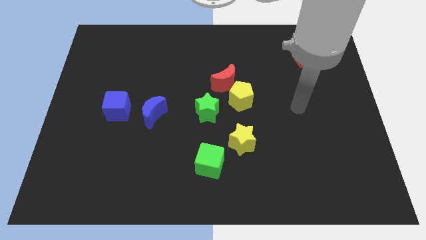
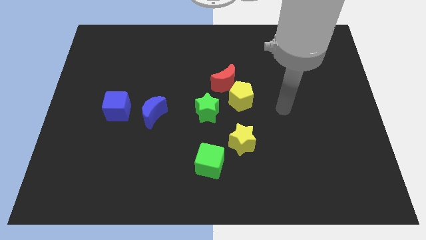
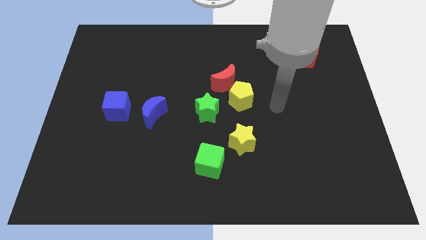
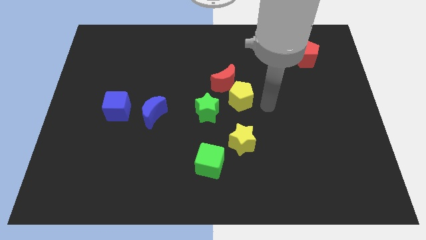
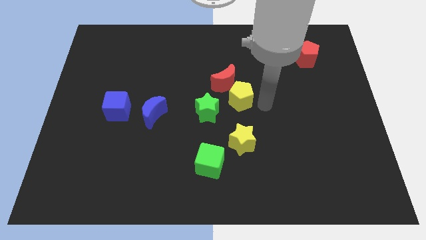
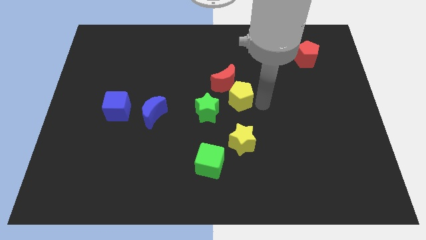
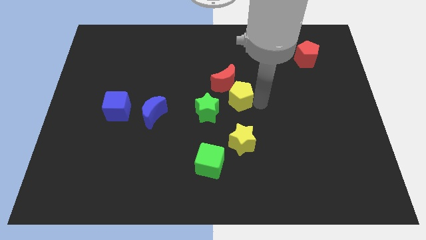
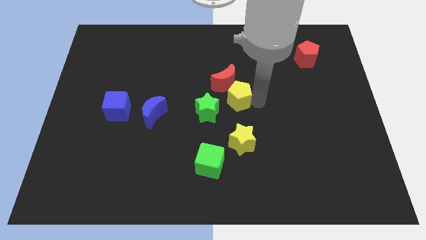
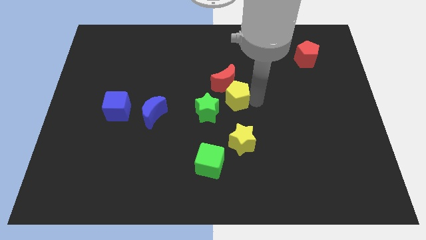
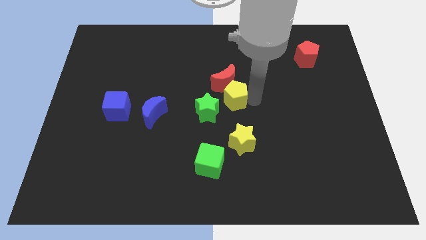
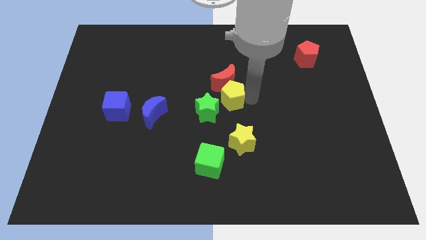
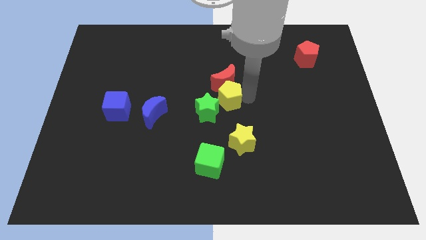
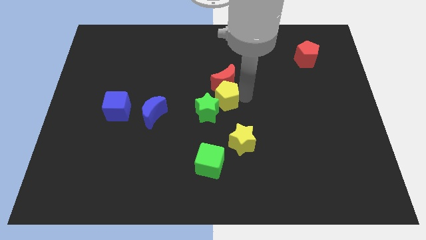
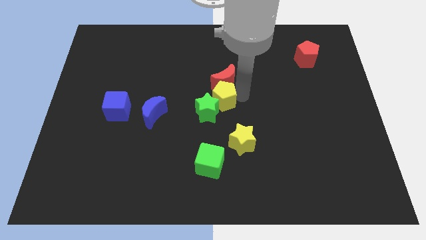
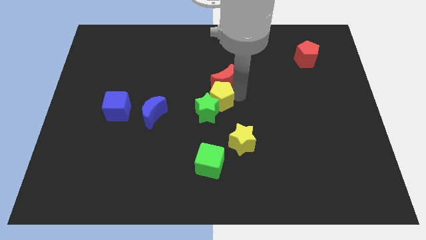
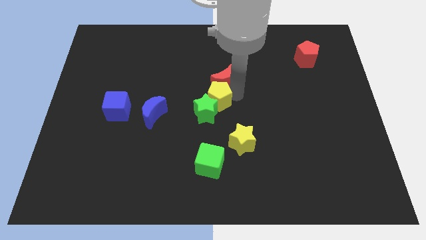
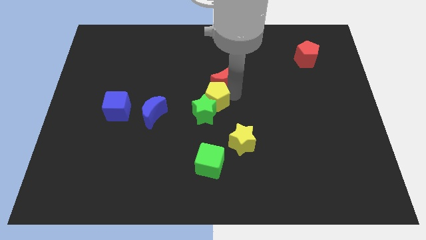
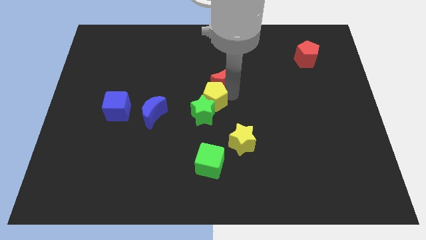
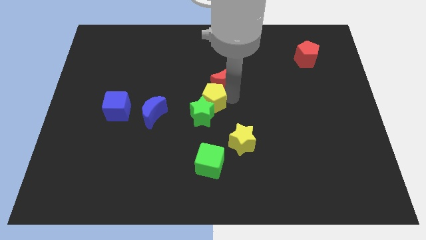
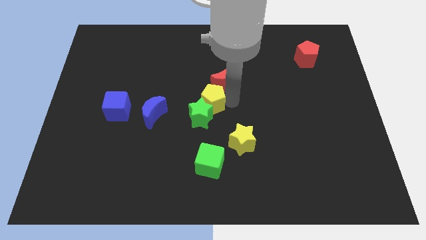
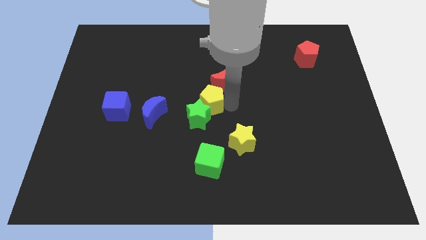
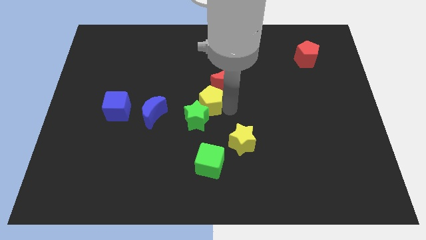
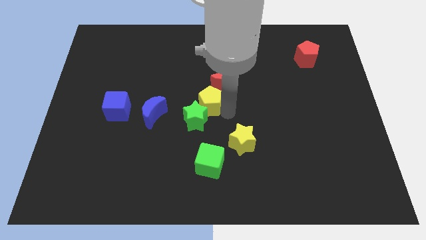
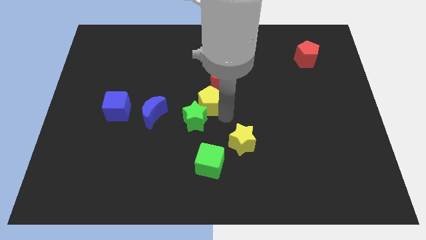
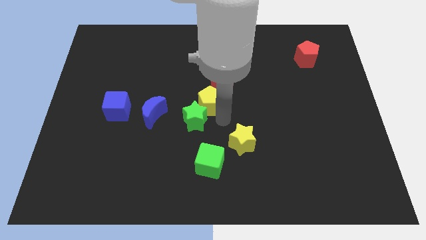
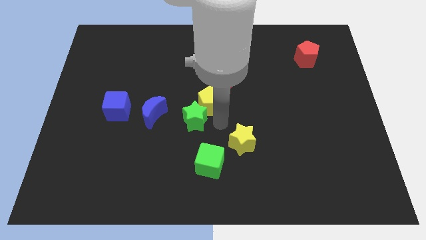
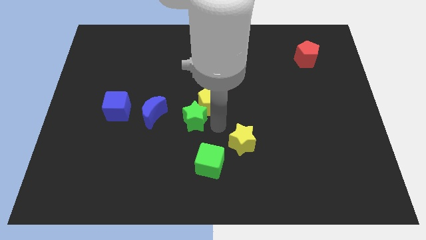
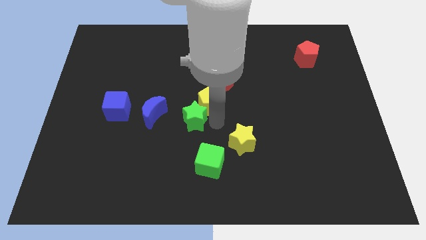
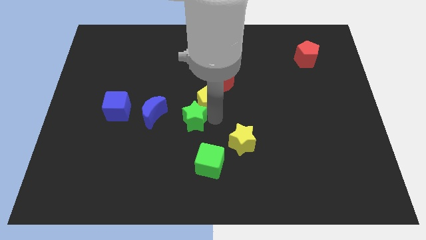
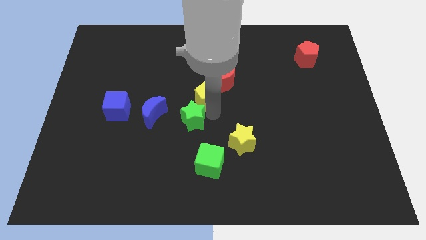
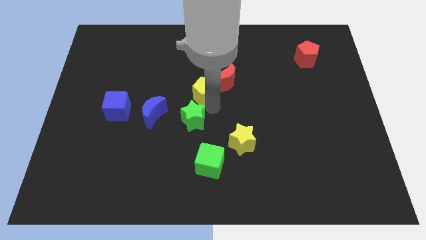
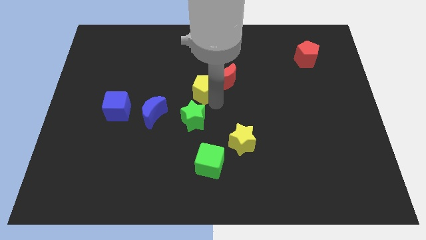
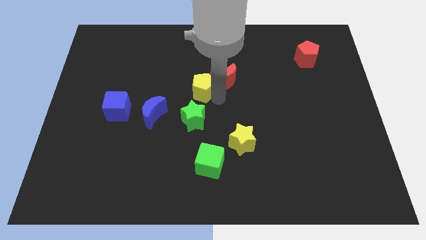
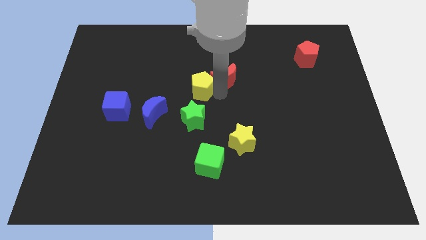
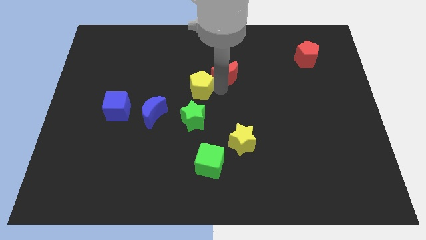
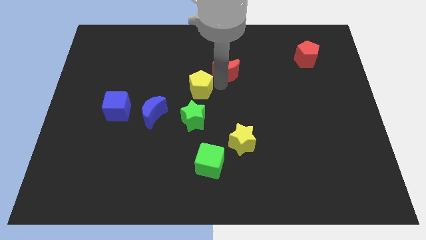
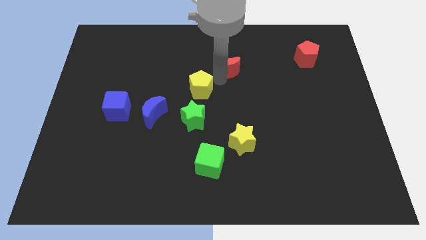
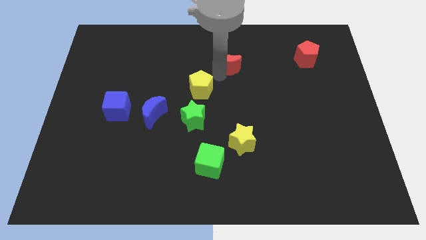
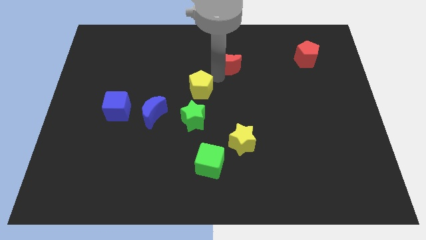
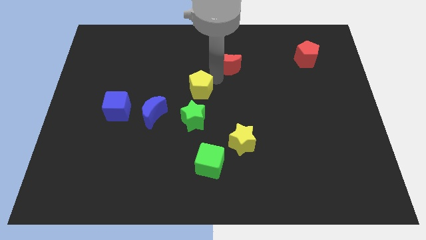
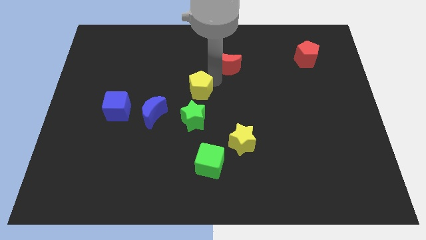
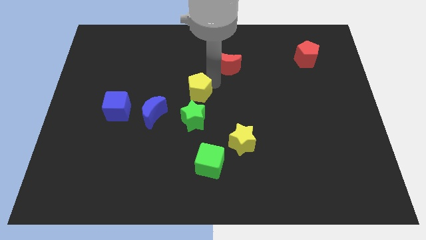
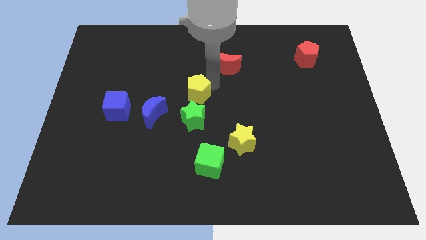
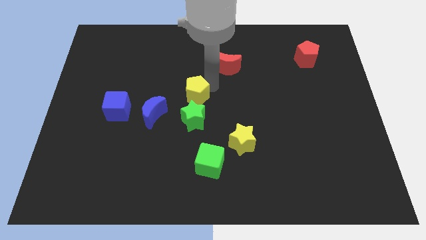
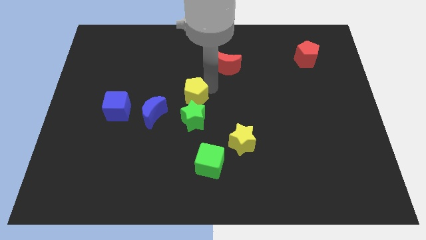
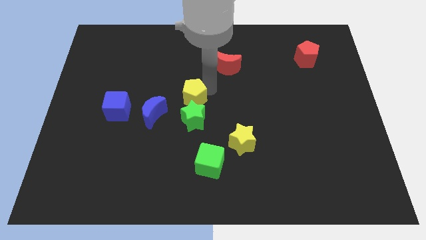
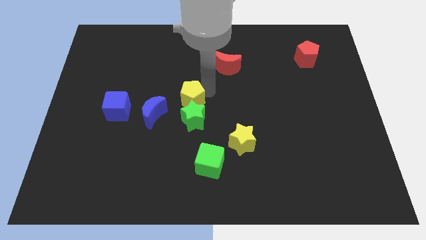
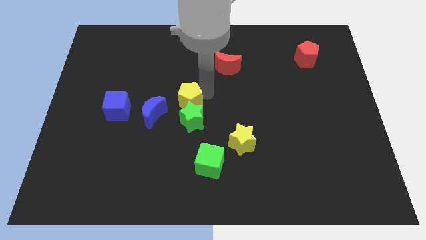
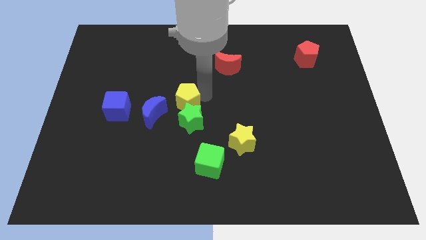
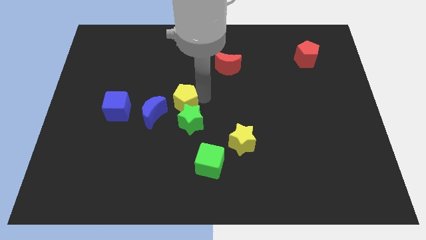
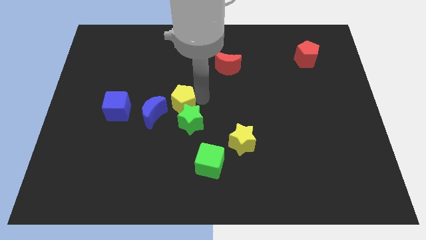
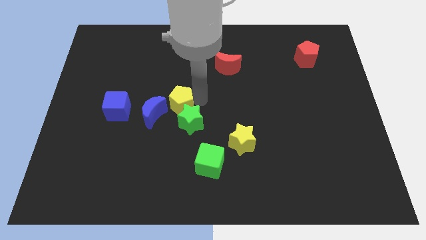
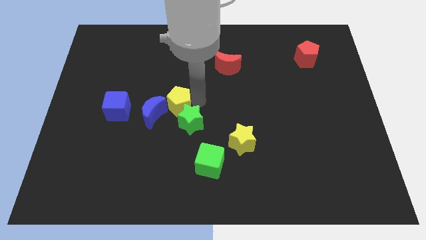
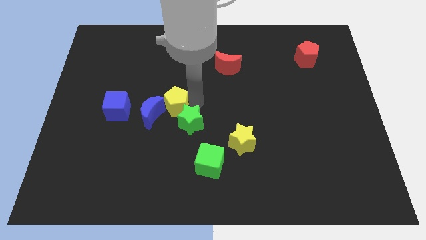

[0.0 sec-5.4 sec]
move the yellow pentagon next to the blue moon
